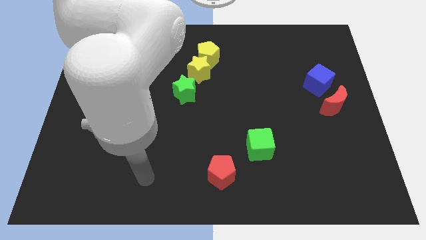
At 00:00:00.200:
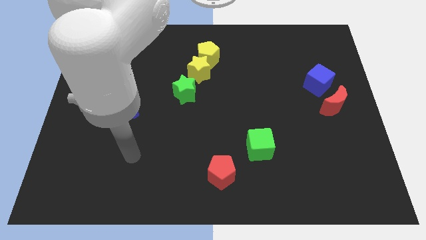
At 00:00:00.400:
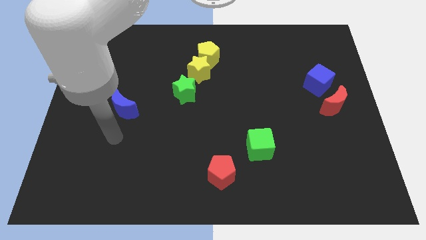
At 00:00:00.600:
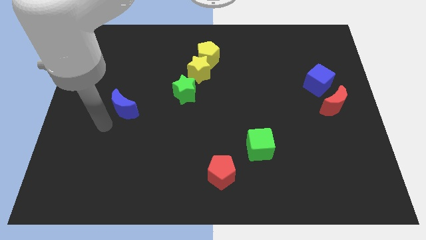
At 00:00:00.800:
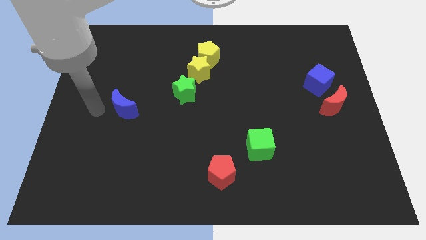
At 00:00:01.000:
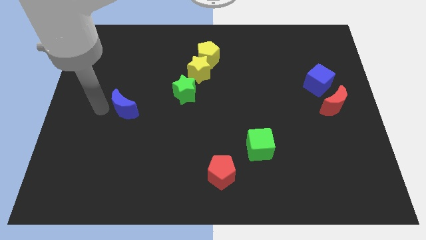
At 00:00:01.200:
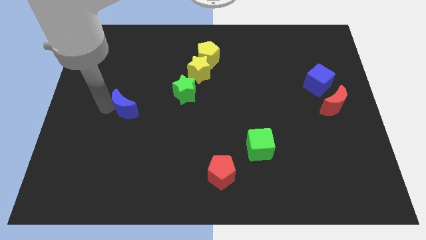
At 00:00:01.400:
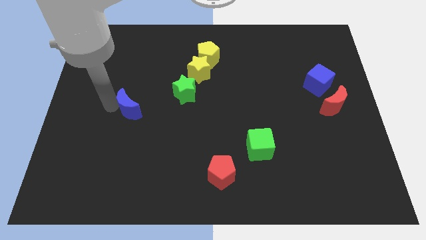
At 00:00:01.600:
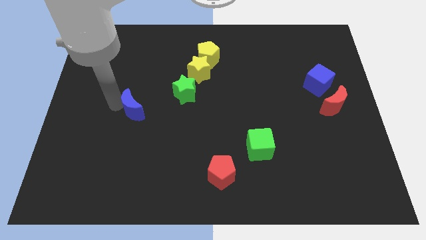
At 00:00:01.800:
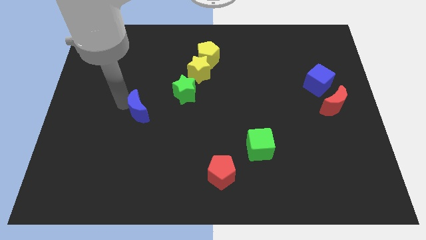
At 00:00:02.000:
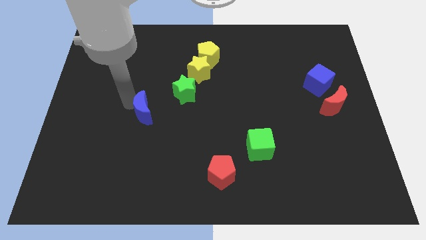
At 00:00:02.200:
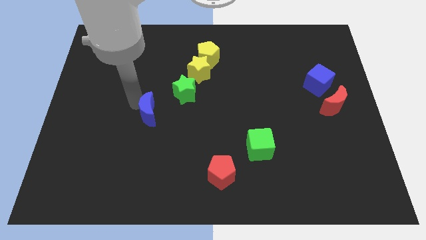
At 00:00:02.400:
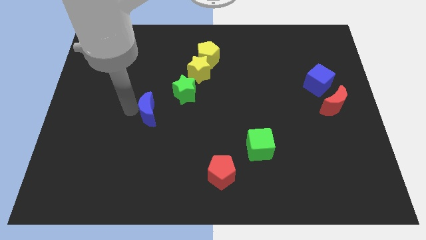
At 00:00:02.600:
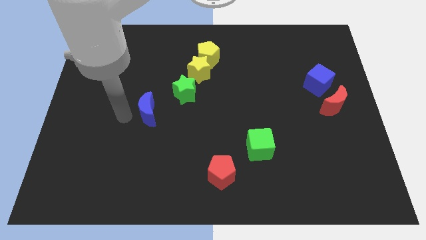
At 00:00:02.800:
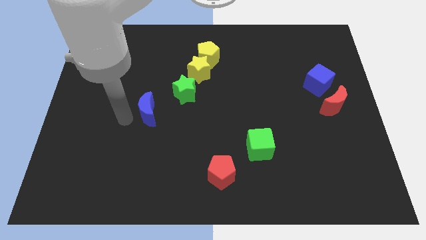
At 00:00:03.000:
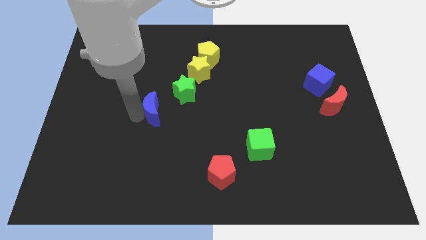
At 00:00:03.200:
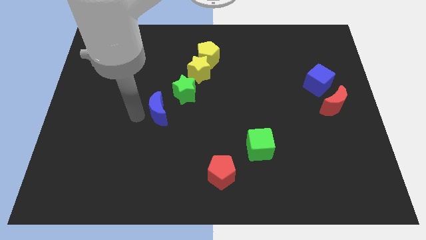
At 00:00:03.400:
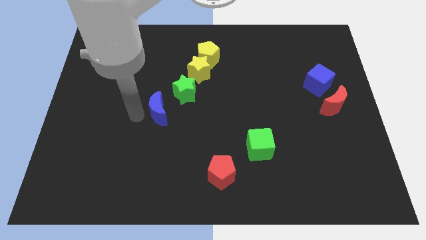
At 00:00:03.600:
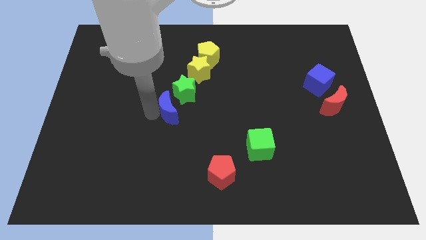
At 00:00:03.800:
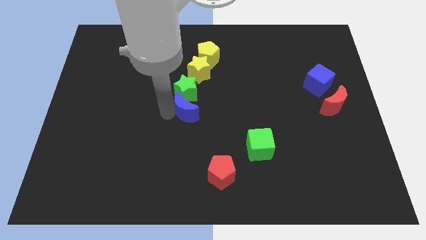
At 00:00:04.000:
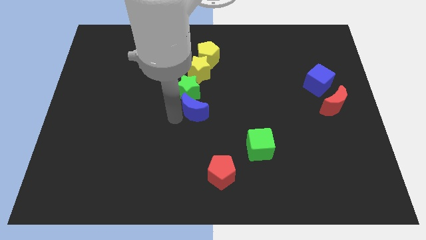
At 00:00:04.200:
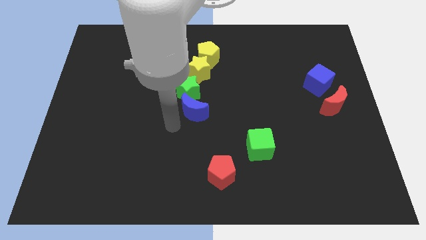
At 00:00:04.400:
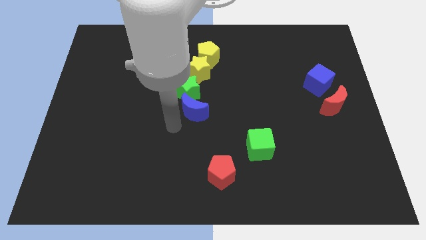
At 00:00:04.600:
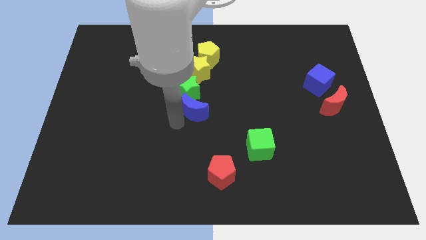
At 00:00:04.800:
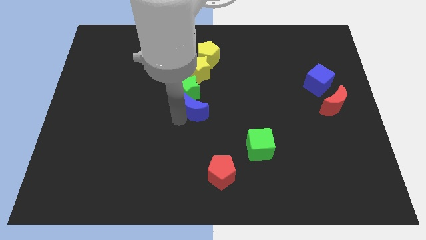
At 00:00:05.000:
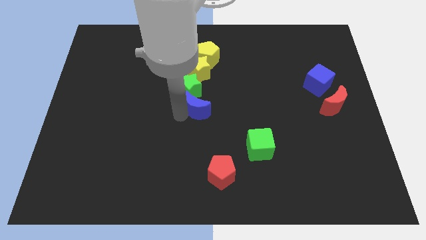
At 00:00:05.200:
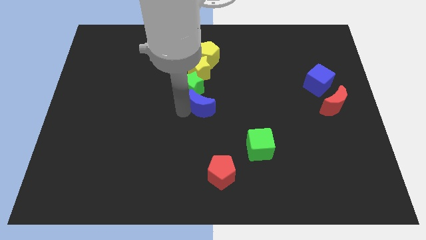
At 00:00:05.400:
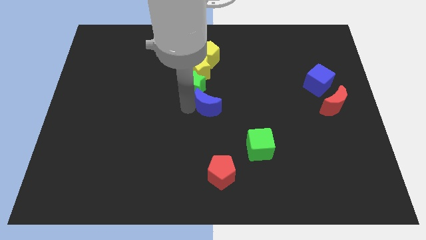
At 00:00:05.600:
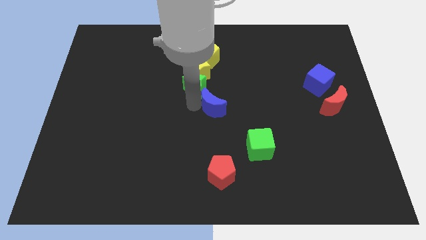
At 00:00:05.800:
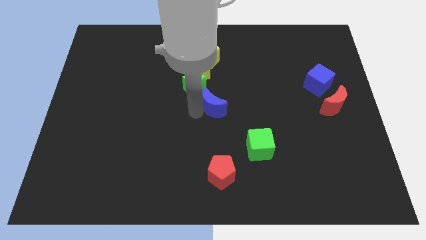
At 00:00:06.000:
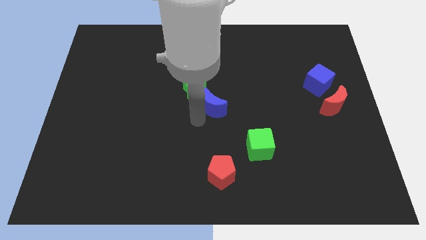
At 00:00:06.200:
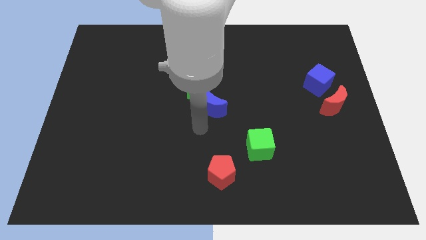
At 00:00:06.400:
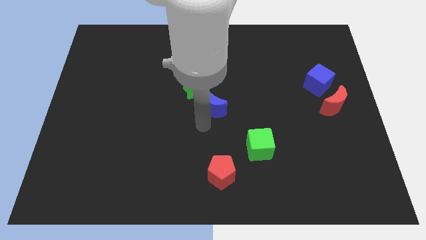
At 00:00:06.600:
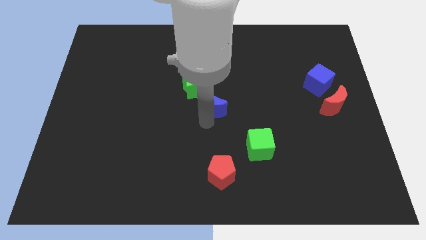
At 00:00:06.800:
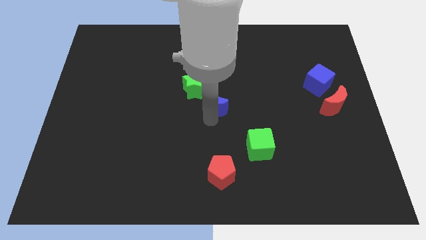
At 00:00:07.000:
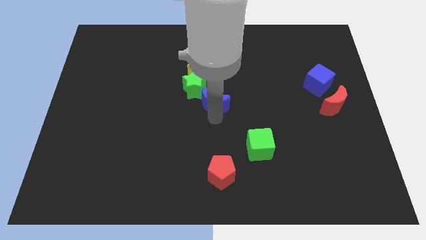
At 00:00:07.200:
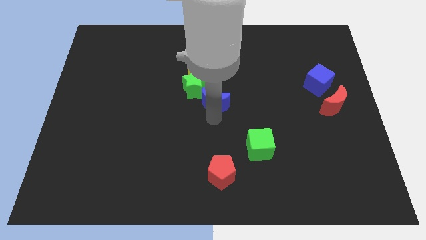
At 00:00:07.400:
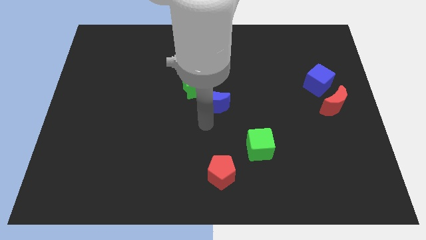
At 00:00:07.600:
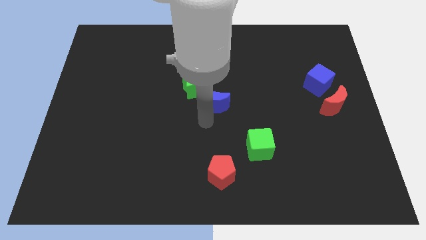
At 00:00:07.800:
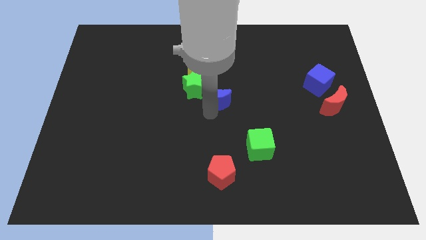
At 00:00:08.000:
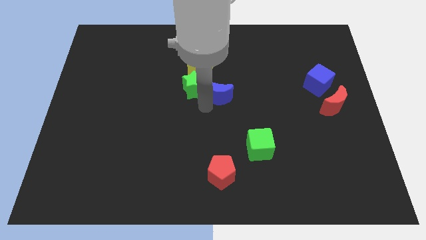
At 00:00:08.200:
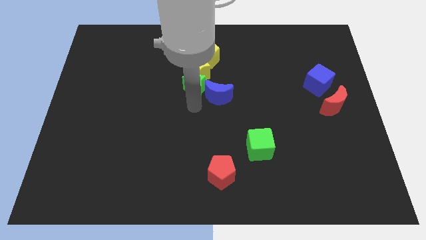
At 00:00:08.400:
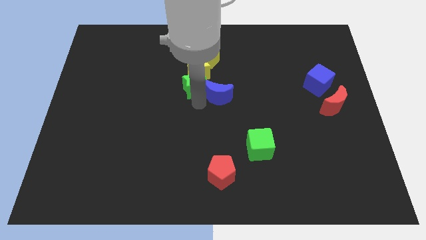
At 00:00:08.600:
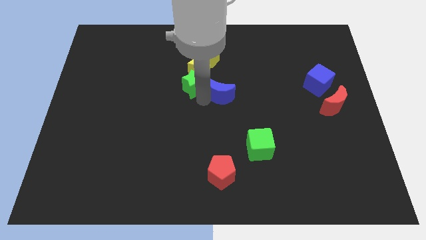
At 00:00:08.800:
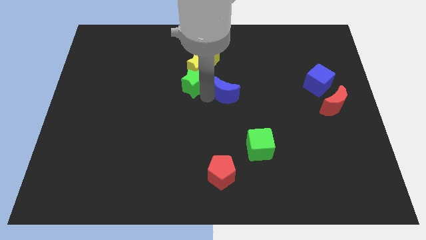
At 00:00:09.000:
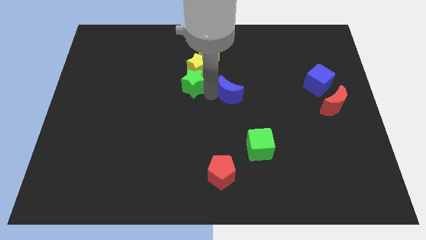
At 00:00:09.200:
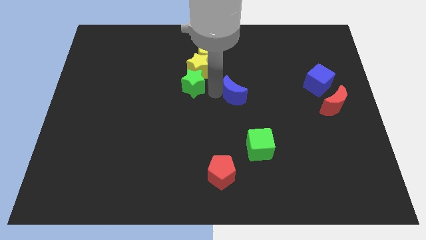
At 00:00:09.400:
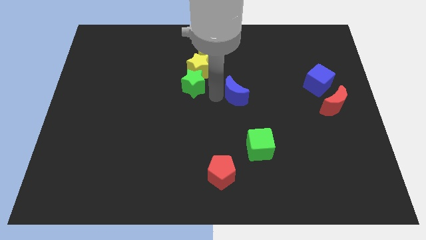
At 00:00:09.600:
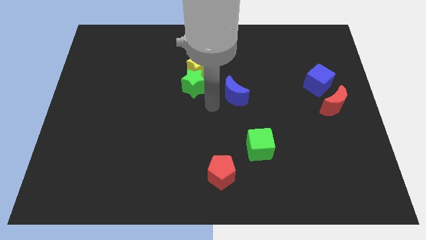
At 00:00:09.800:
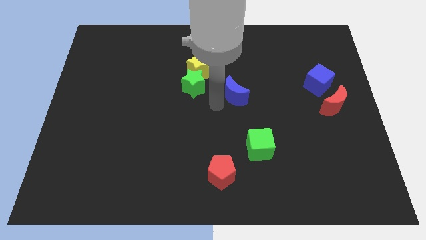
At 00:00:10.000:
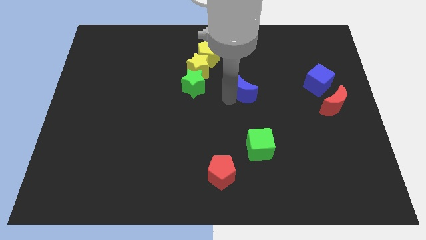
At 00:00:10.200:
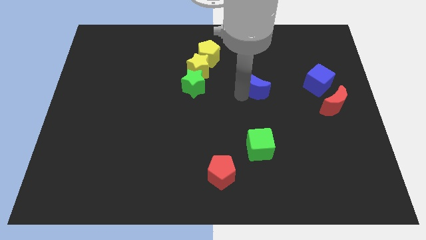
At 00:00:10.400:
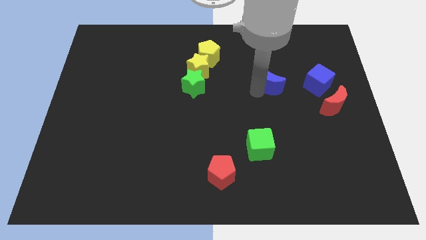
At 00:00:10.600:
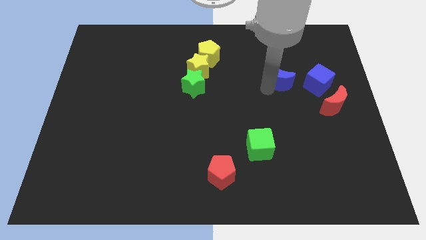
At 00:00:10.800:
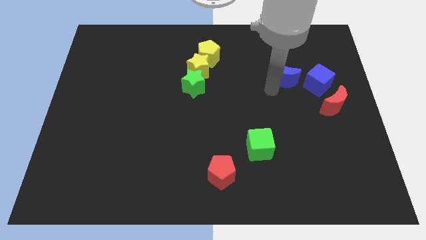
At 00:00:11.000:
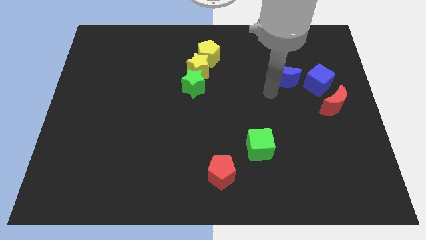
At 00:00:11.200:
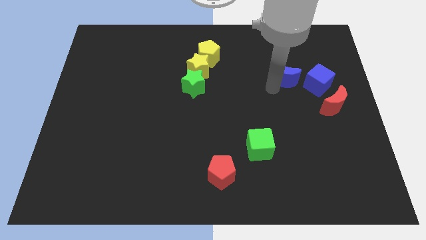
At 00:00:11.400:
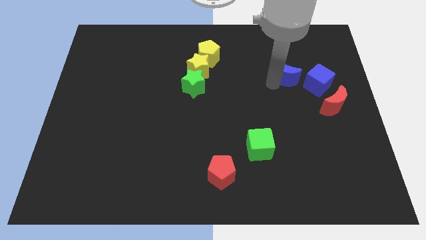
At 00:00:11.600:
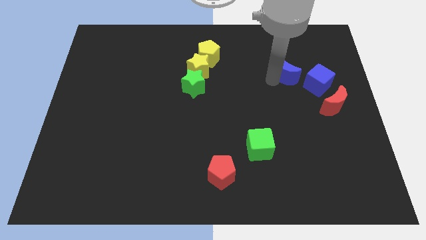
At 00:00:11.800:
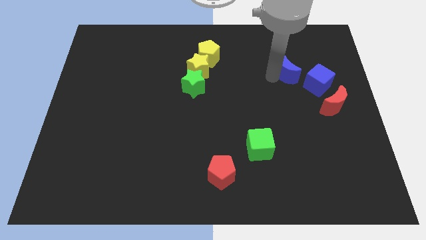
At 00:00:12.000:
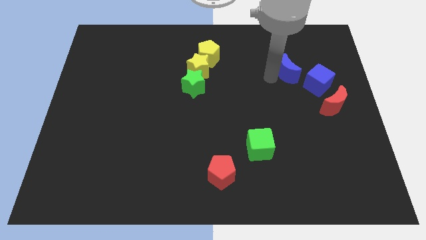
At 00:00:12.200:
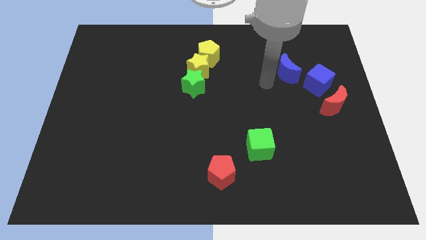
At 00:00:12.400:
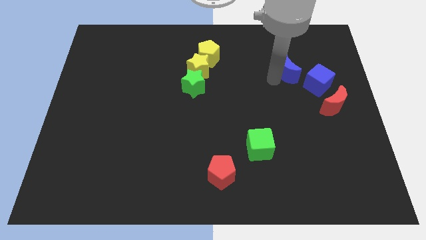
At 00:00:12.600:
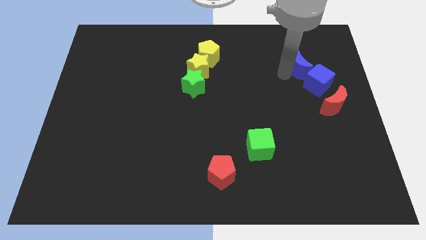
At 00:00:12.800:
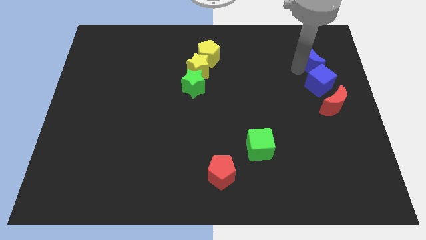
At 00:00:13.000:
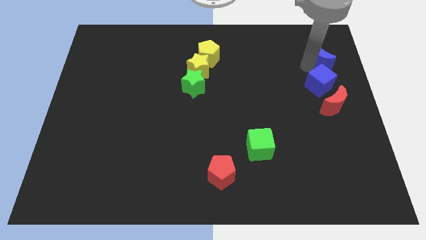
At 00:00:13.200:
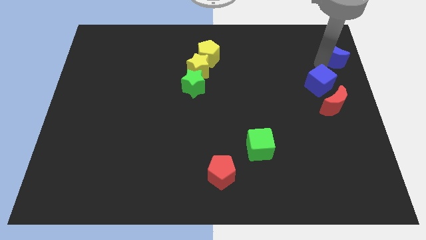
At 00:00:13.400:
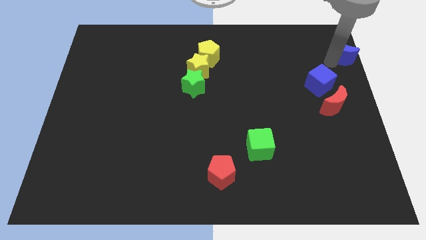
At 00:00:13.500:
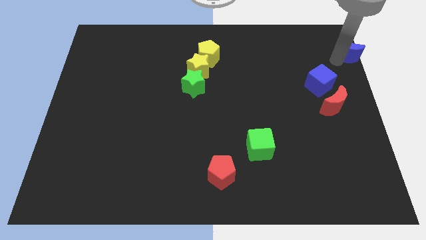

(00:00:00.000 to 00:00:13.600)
push the blue moon to the top right
